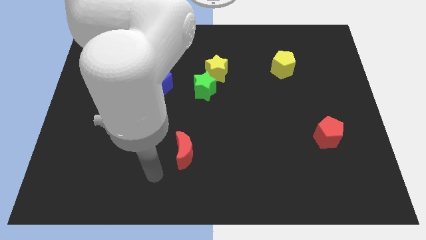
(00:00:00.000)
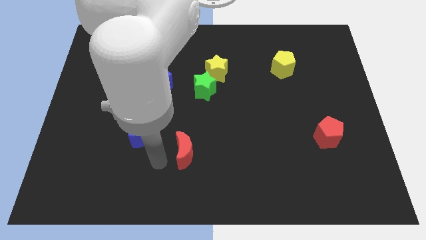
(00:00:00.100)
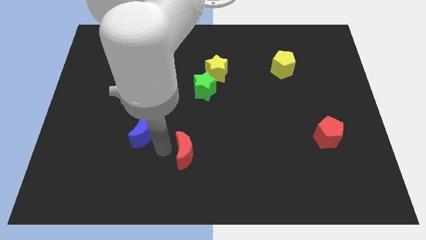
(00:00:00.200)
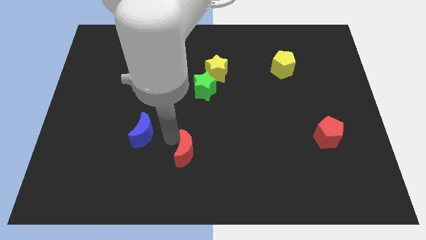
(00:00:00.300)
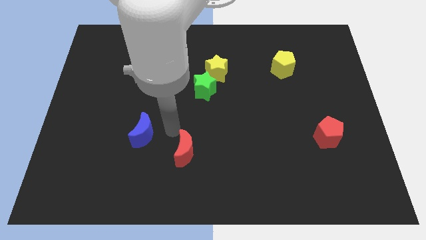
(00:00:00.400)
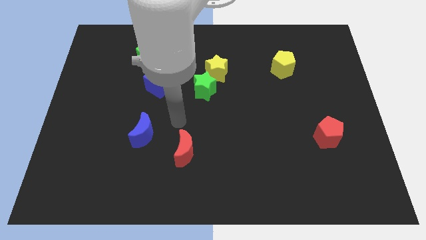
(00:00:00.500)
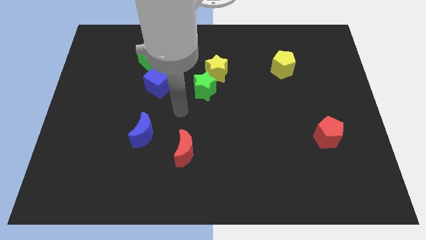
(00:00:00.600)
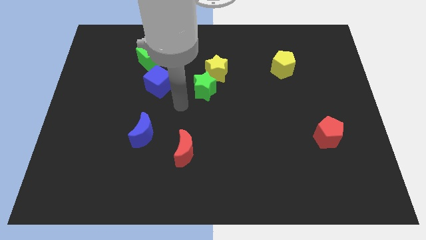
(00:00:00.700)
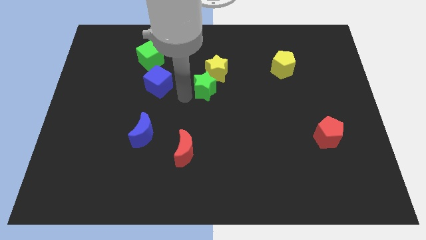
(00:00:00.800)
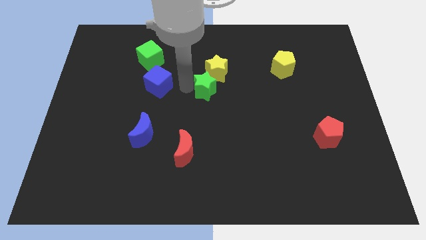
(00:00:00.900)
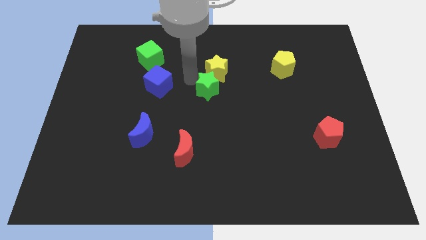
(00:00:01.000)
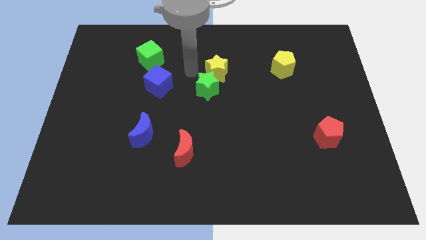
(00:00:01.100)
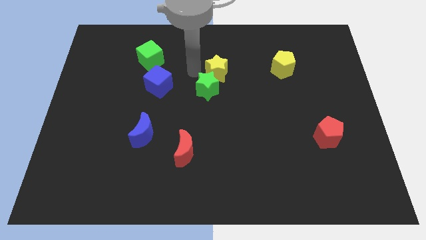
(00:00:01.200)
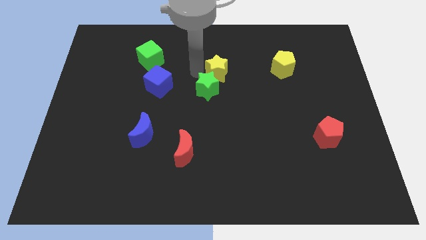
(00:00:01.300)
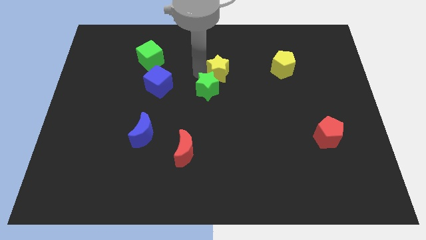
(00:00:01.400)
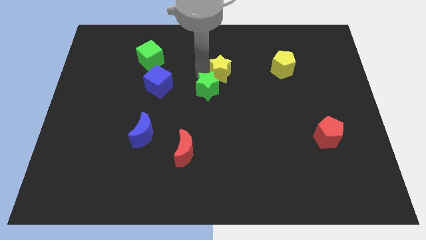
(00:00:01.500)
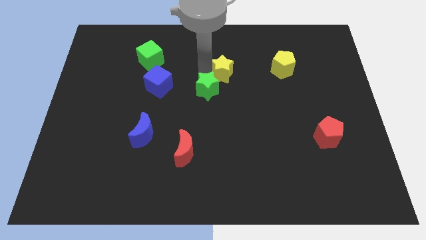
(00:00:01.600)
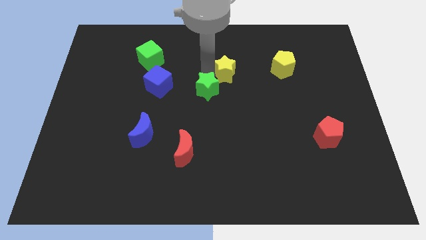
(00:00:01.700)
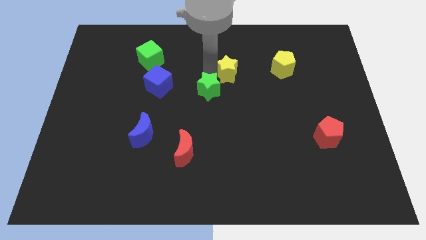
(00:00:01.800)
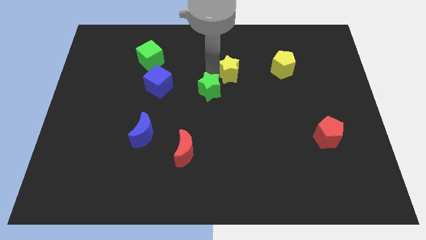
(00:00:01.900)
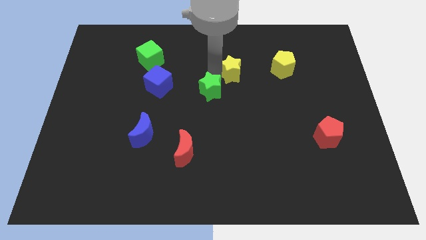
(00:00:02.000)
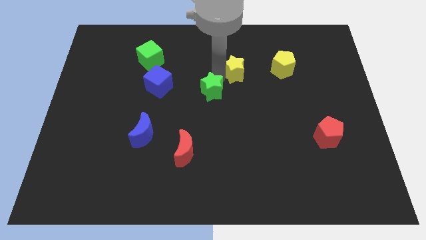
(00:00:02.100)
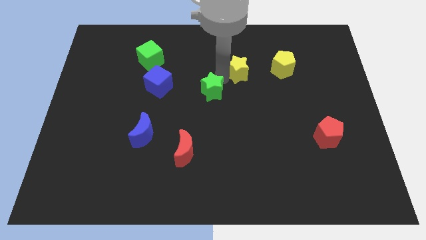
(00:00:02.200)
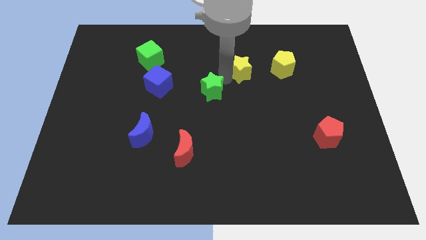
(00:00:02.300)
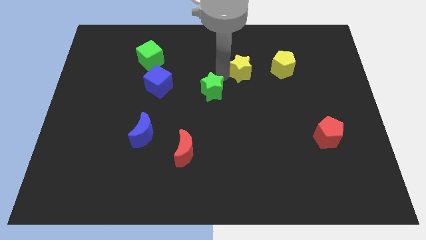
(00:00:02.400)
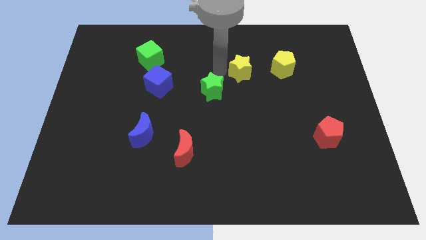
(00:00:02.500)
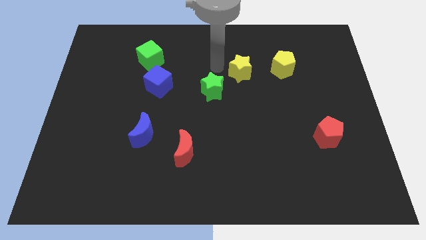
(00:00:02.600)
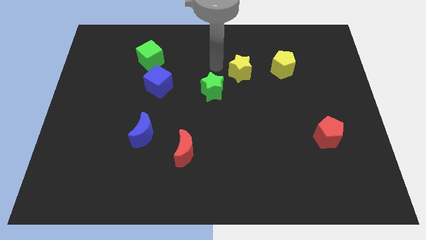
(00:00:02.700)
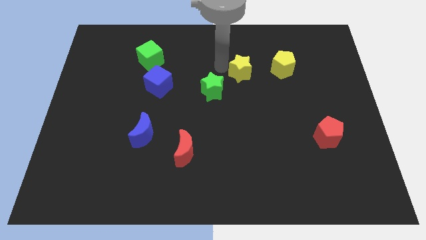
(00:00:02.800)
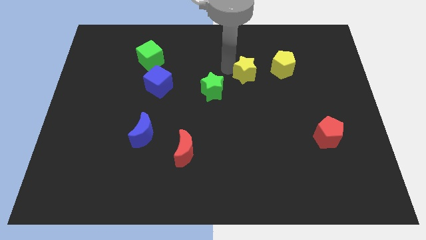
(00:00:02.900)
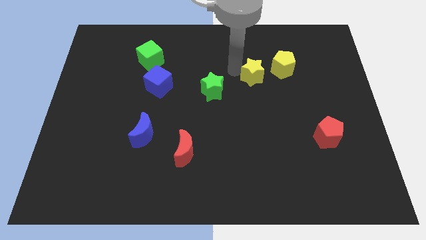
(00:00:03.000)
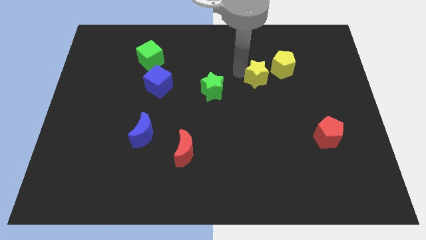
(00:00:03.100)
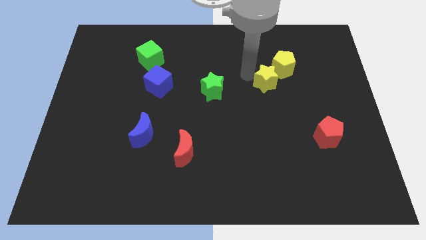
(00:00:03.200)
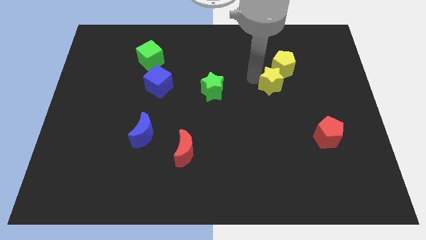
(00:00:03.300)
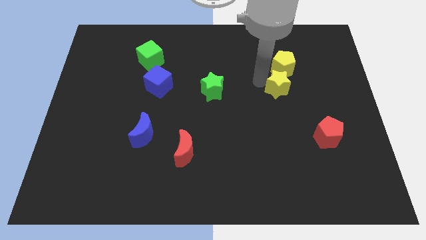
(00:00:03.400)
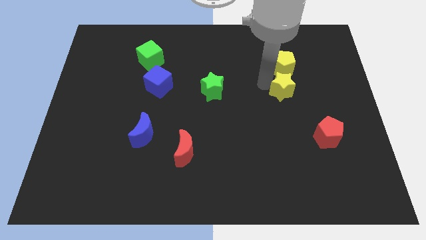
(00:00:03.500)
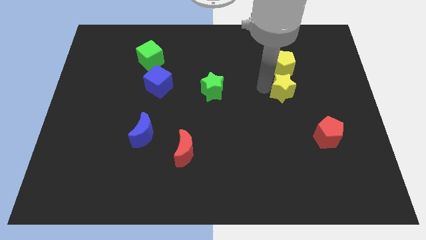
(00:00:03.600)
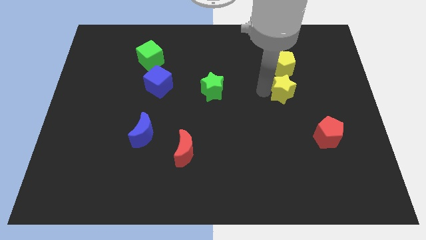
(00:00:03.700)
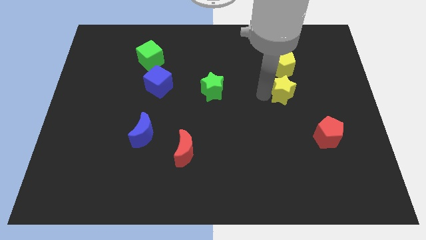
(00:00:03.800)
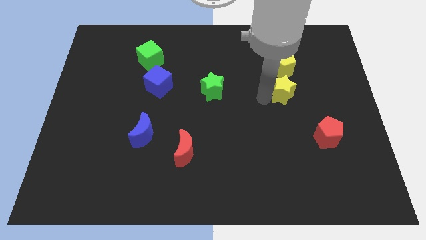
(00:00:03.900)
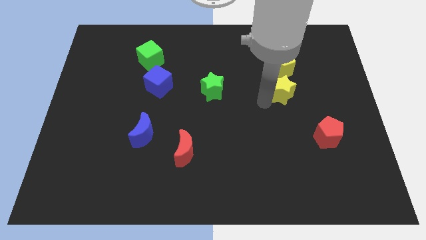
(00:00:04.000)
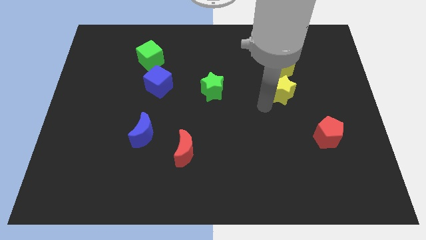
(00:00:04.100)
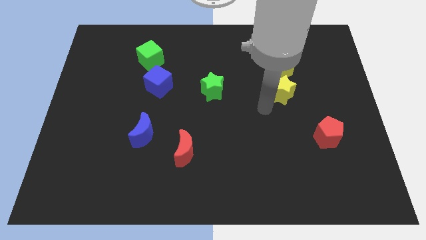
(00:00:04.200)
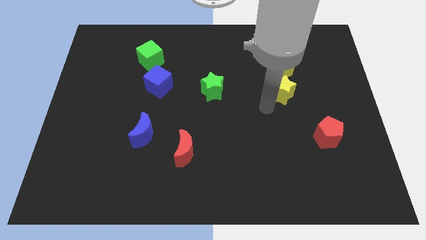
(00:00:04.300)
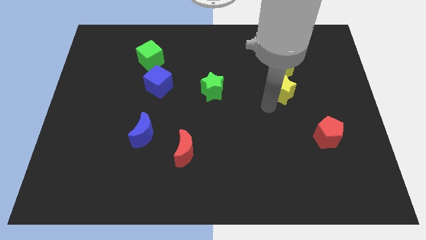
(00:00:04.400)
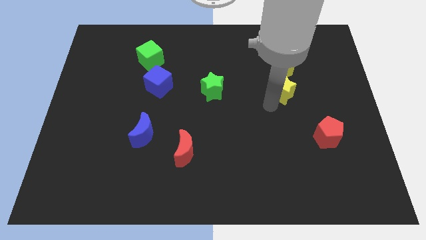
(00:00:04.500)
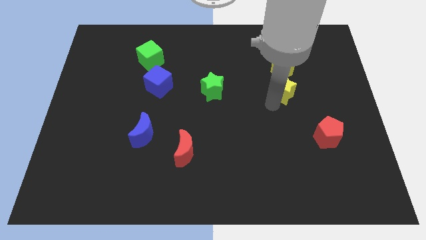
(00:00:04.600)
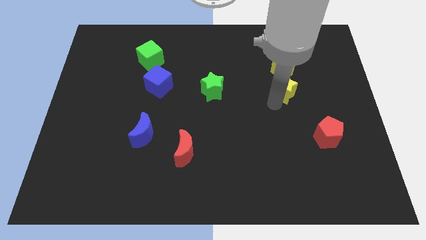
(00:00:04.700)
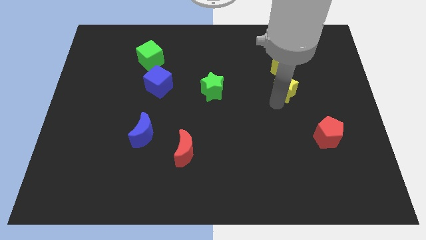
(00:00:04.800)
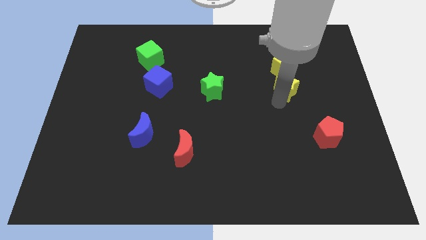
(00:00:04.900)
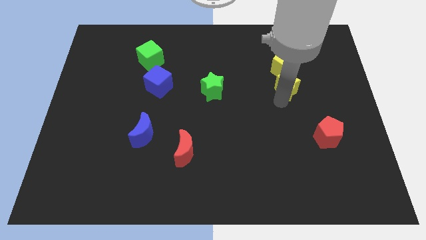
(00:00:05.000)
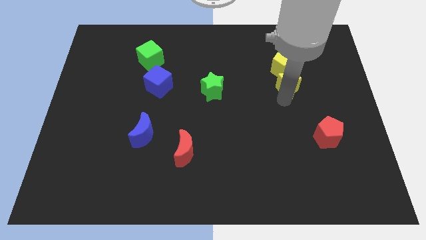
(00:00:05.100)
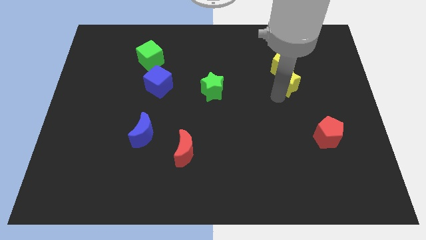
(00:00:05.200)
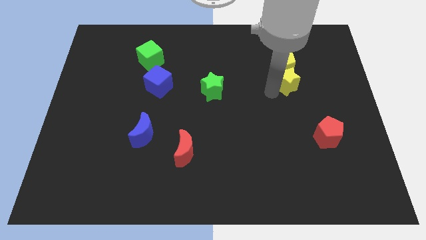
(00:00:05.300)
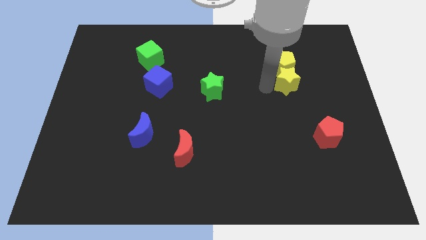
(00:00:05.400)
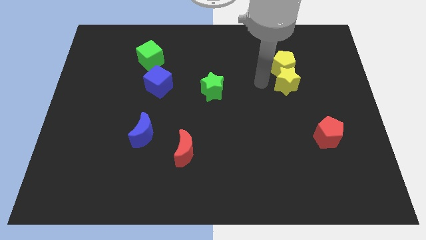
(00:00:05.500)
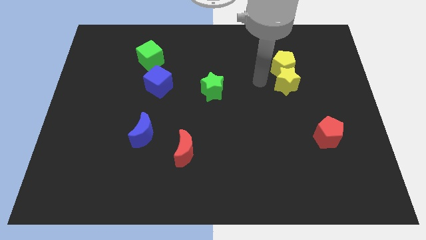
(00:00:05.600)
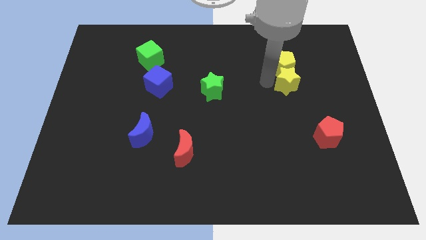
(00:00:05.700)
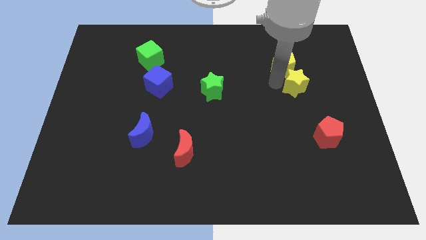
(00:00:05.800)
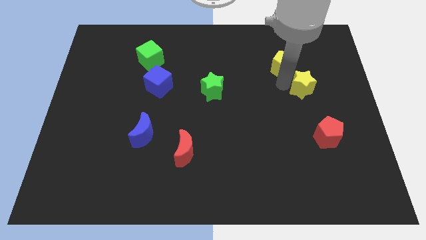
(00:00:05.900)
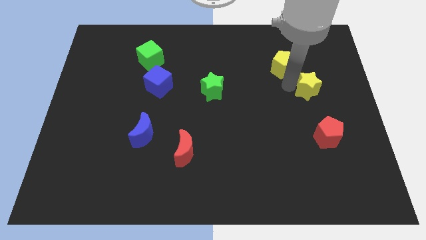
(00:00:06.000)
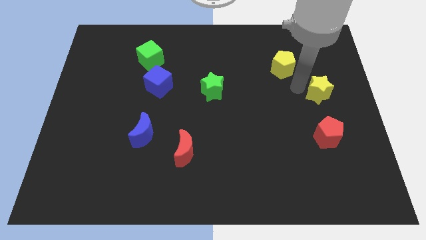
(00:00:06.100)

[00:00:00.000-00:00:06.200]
slide the yellow star to the center right
